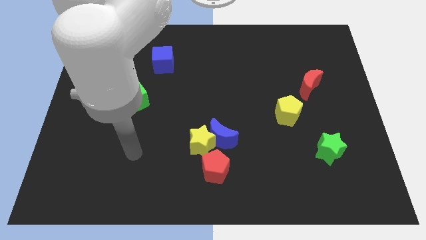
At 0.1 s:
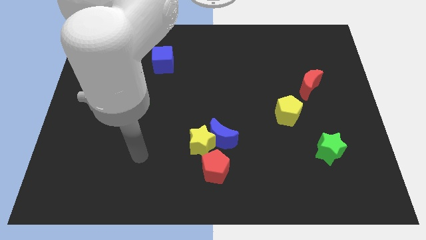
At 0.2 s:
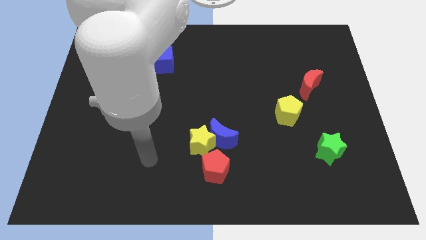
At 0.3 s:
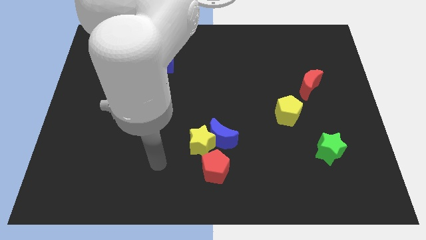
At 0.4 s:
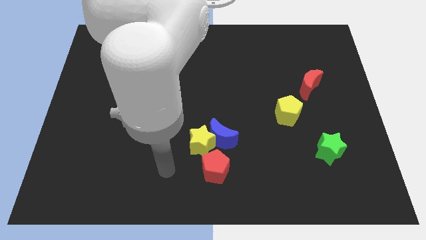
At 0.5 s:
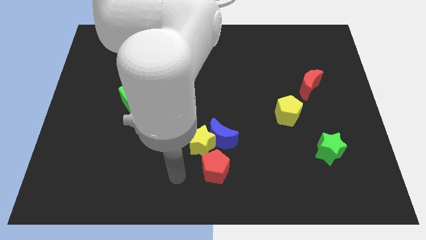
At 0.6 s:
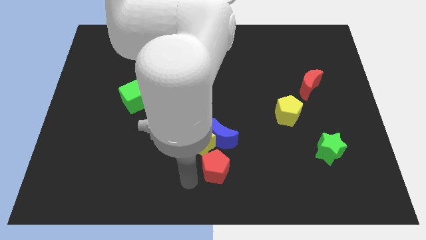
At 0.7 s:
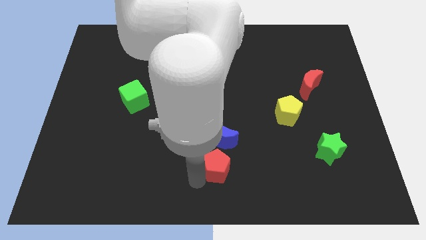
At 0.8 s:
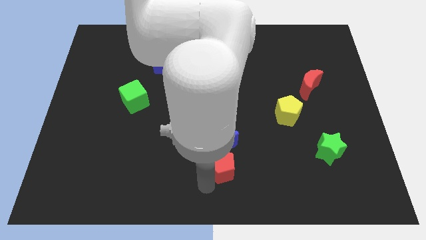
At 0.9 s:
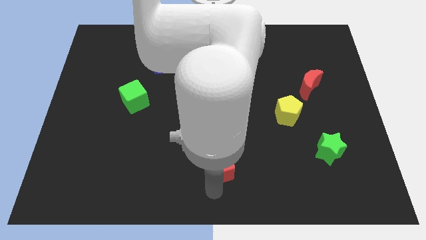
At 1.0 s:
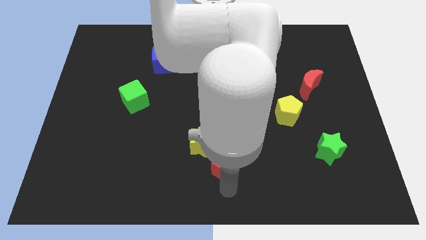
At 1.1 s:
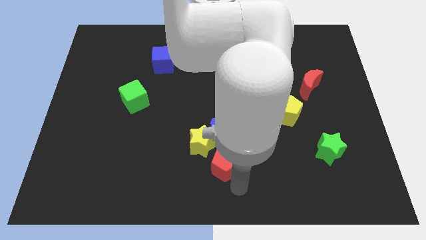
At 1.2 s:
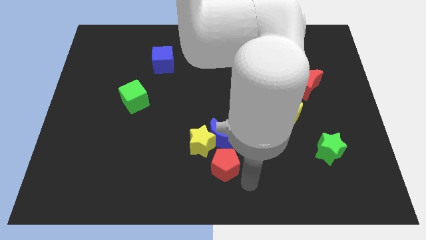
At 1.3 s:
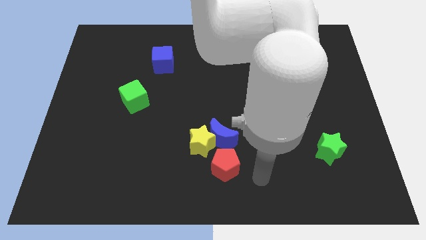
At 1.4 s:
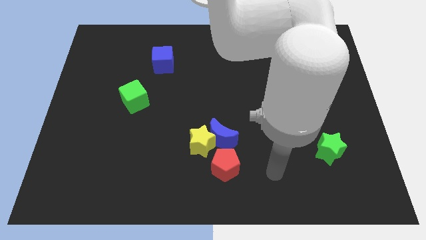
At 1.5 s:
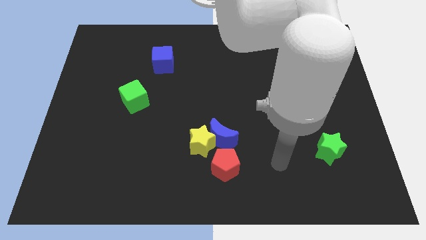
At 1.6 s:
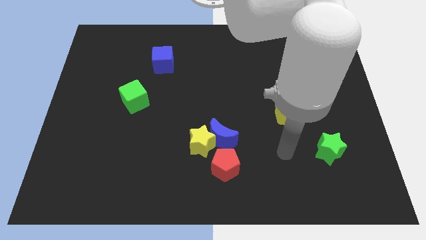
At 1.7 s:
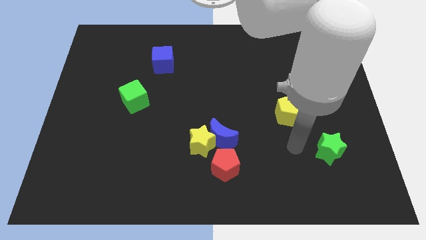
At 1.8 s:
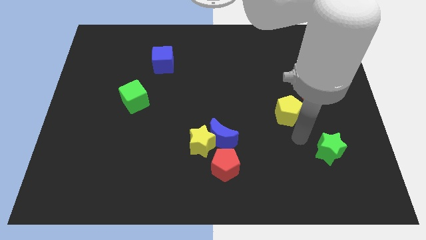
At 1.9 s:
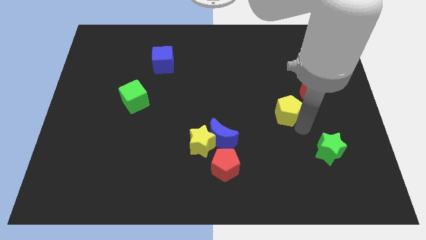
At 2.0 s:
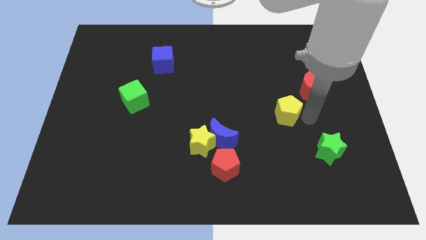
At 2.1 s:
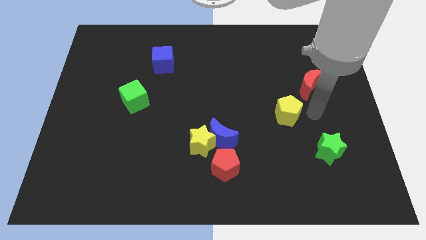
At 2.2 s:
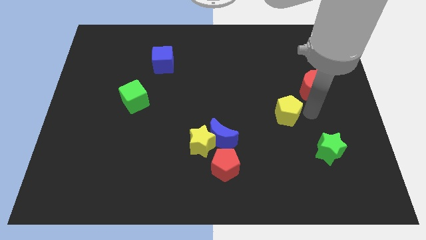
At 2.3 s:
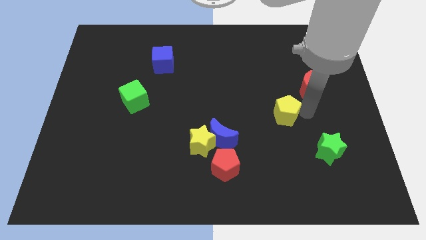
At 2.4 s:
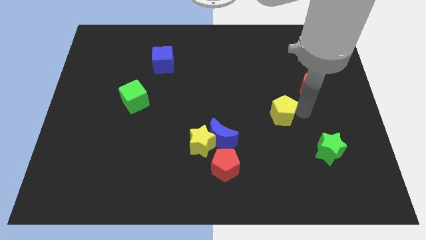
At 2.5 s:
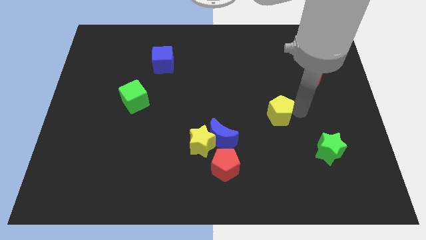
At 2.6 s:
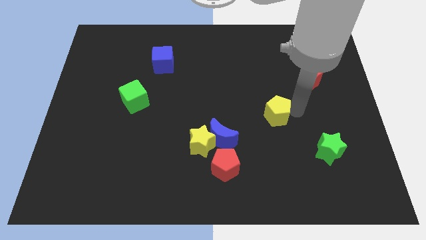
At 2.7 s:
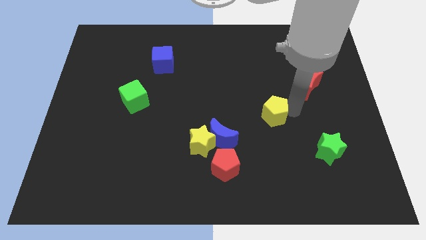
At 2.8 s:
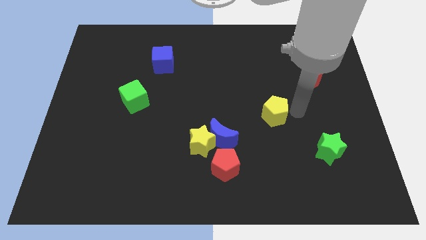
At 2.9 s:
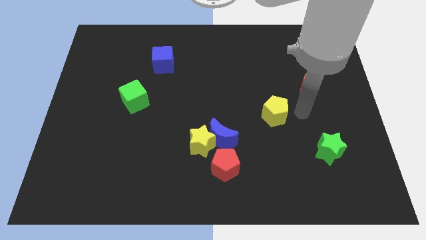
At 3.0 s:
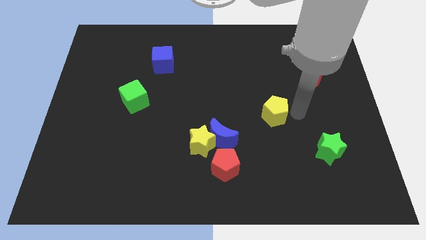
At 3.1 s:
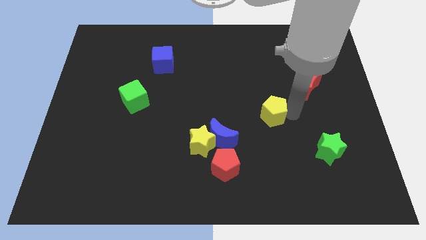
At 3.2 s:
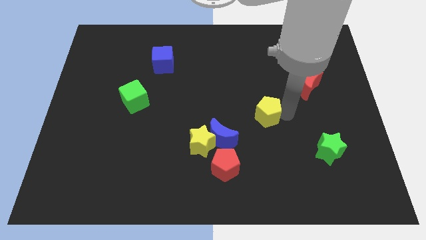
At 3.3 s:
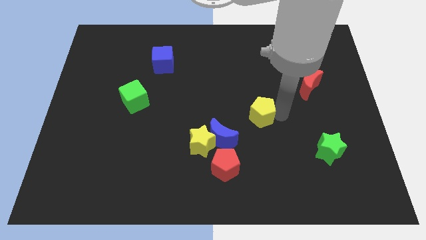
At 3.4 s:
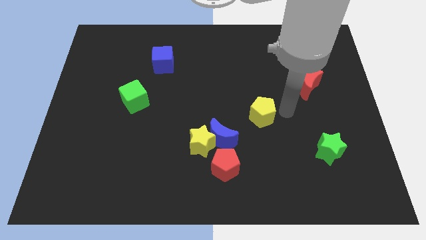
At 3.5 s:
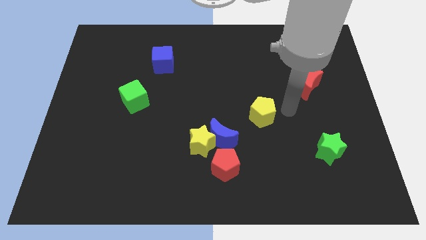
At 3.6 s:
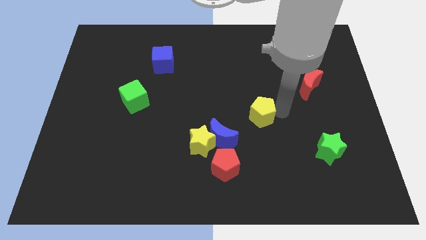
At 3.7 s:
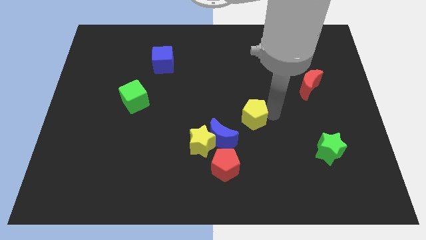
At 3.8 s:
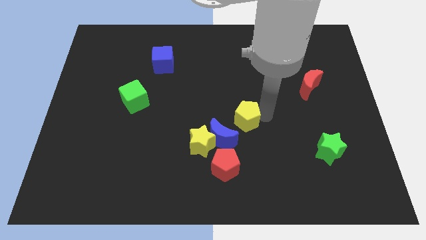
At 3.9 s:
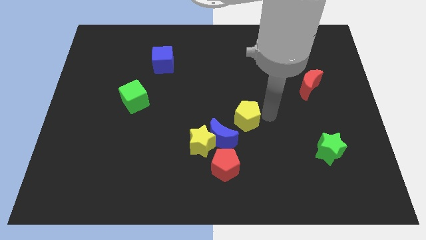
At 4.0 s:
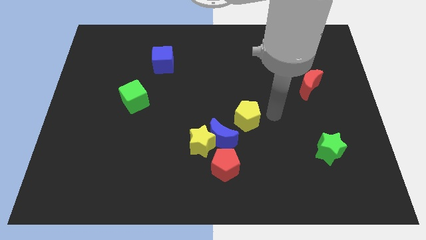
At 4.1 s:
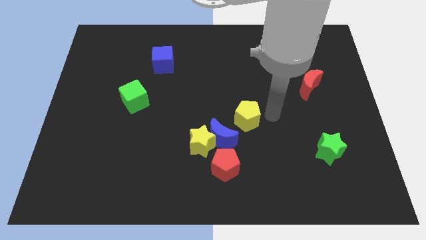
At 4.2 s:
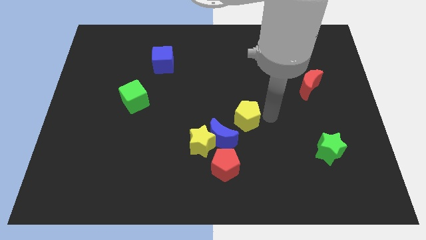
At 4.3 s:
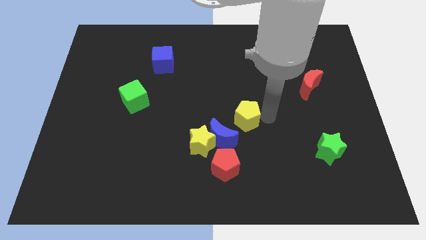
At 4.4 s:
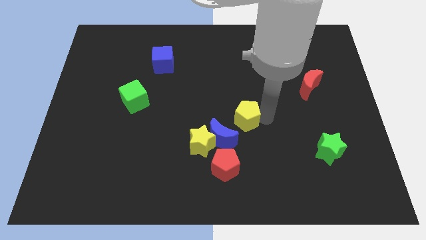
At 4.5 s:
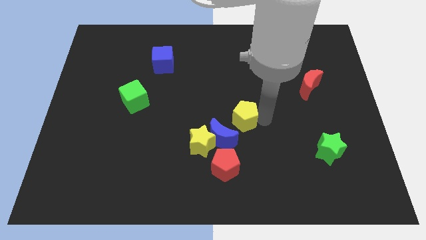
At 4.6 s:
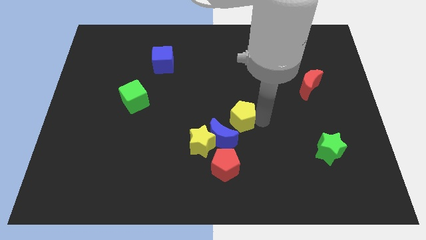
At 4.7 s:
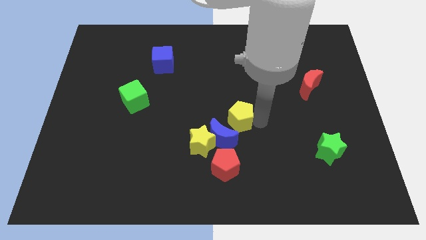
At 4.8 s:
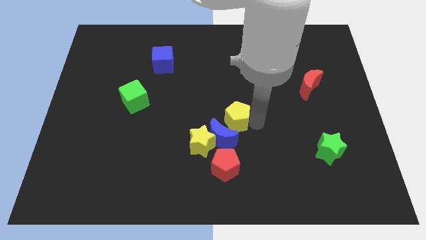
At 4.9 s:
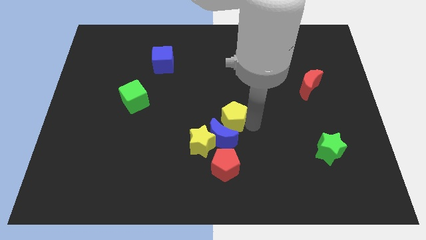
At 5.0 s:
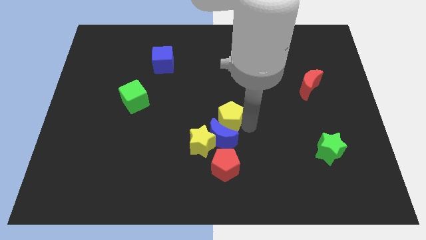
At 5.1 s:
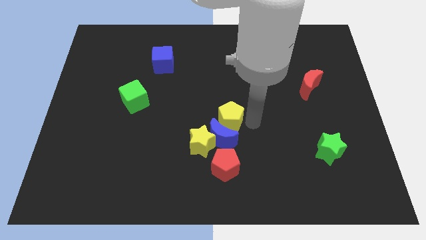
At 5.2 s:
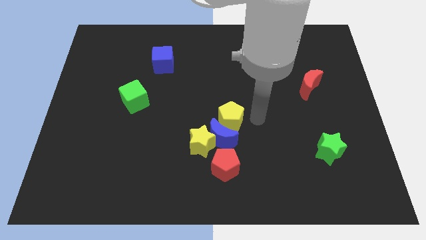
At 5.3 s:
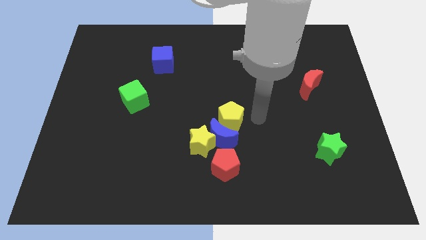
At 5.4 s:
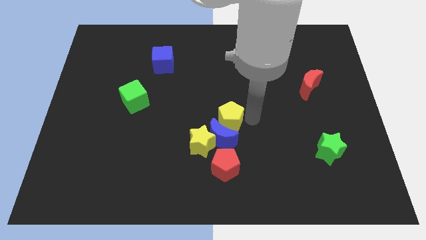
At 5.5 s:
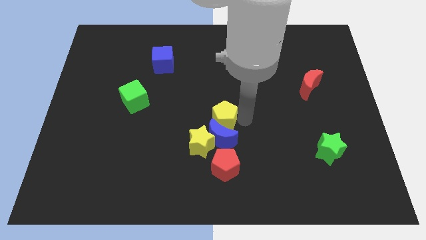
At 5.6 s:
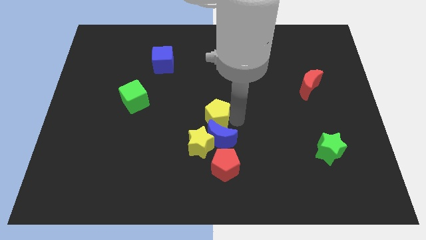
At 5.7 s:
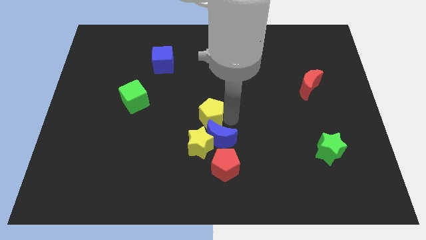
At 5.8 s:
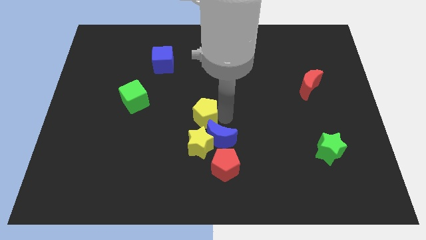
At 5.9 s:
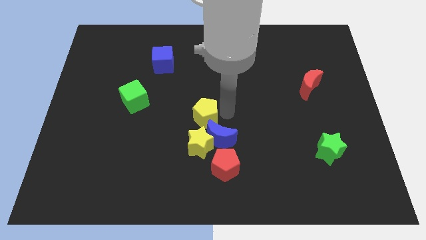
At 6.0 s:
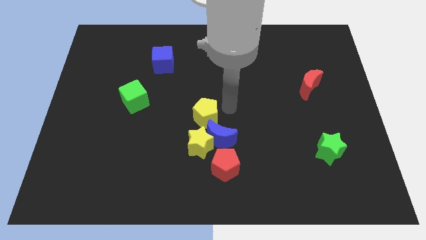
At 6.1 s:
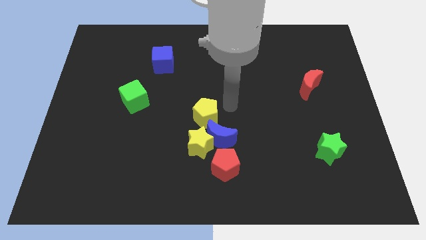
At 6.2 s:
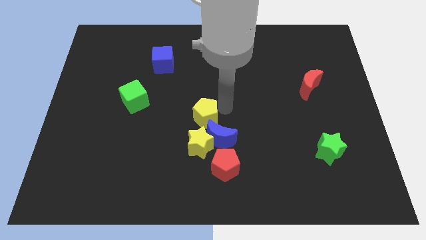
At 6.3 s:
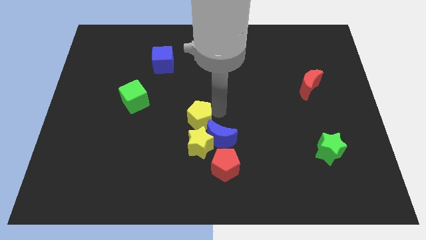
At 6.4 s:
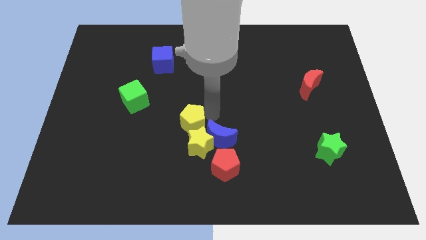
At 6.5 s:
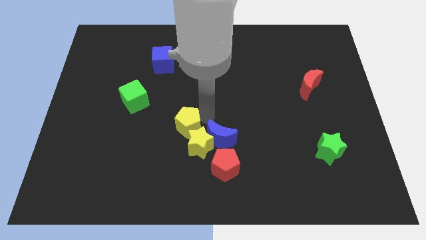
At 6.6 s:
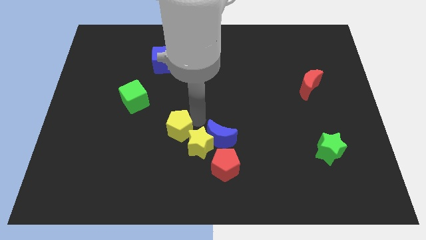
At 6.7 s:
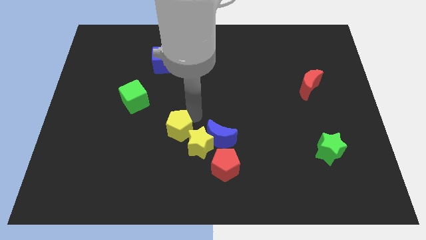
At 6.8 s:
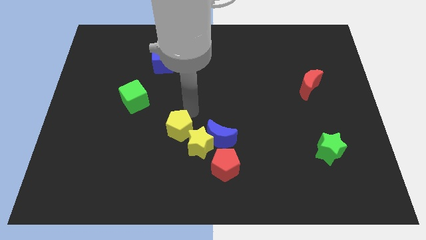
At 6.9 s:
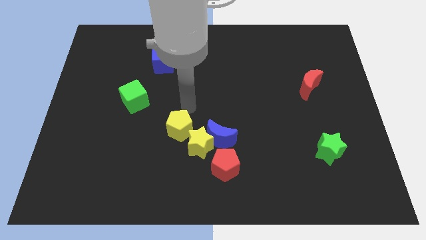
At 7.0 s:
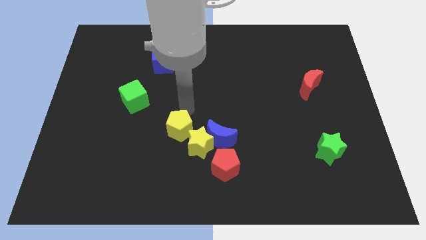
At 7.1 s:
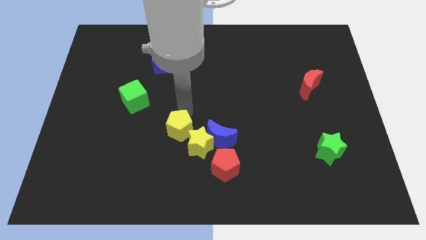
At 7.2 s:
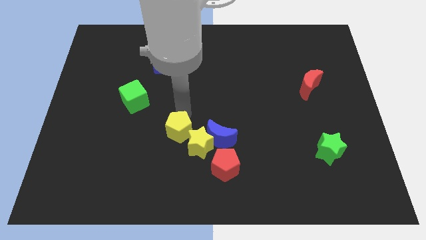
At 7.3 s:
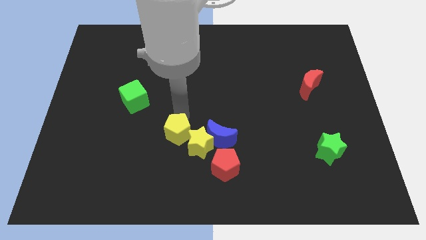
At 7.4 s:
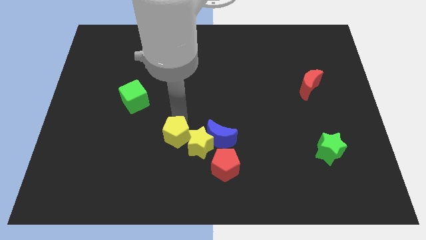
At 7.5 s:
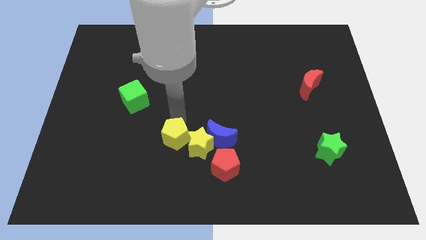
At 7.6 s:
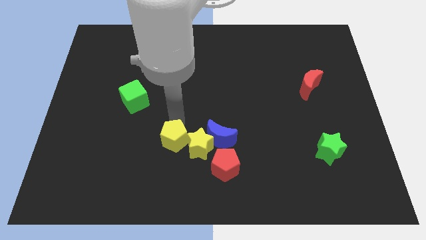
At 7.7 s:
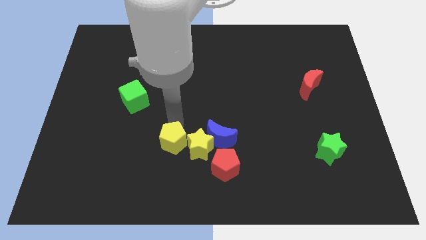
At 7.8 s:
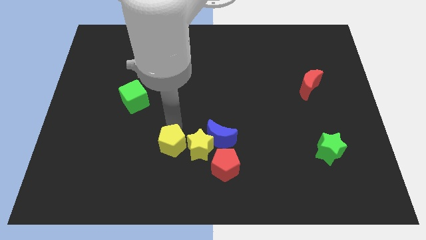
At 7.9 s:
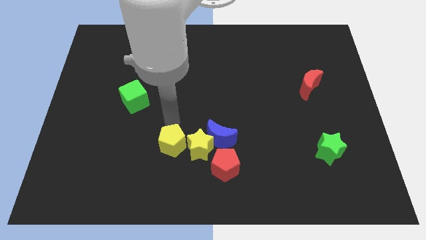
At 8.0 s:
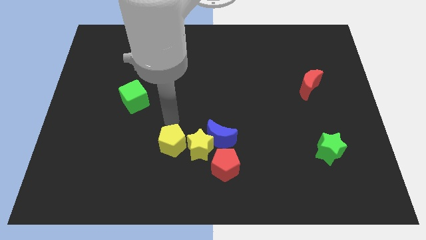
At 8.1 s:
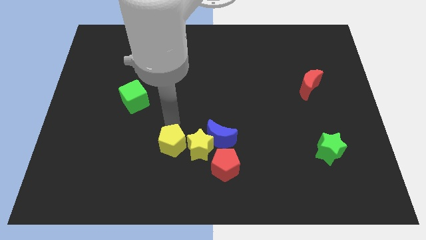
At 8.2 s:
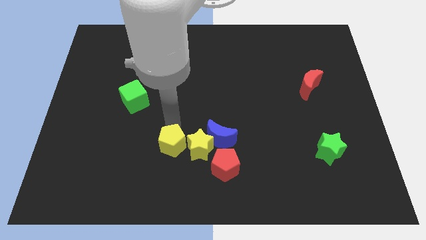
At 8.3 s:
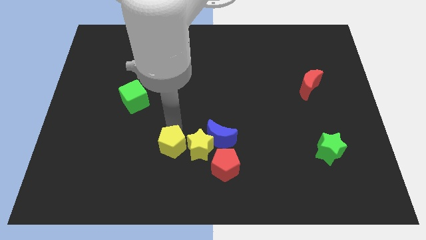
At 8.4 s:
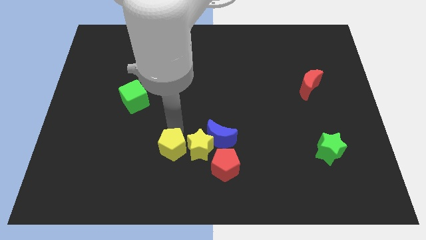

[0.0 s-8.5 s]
slide the yellow pentagon left of the red pentagon
